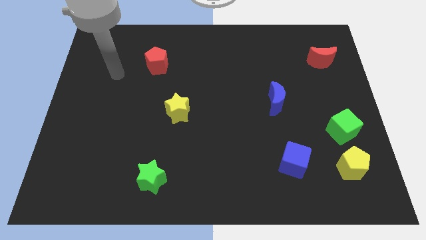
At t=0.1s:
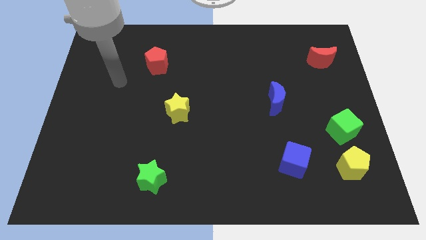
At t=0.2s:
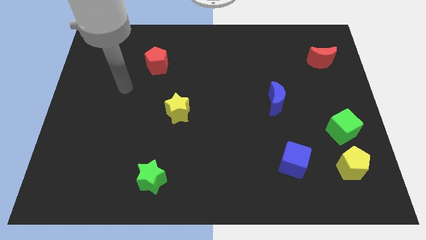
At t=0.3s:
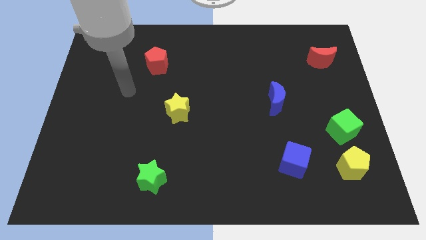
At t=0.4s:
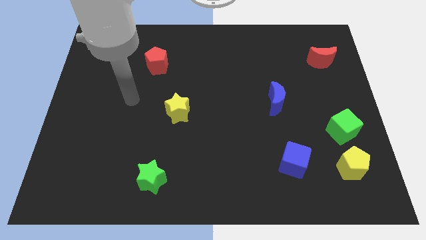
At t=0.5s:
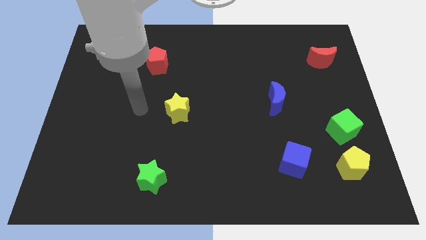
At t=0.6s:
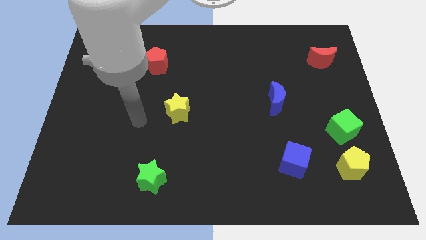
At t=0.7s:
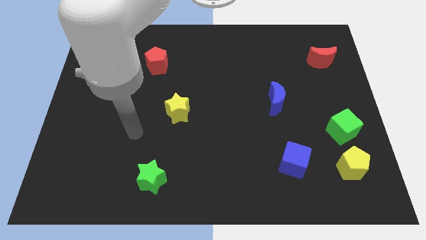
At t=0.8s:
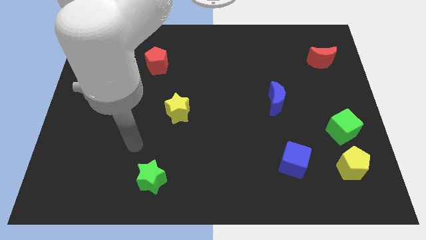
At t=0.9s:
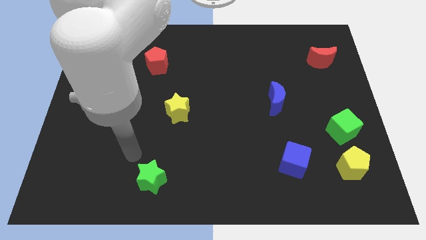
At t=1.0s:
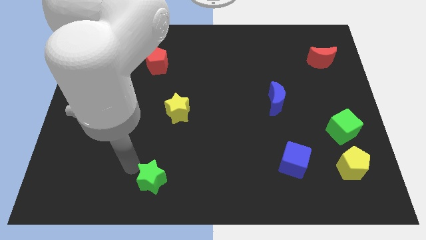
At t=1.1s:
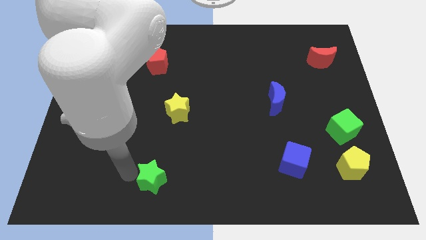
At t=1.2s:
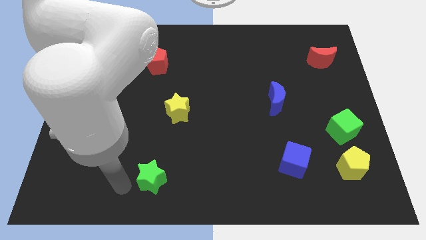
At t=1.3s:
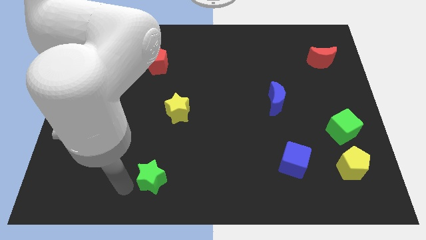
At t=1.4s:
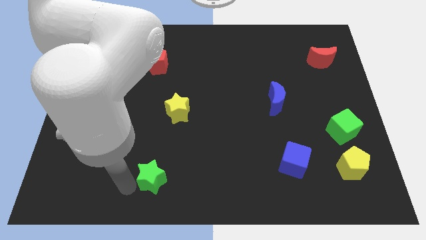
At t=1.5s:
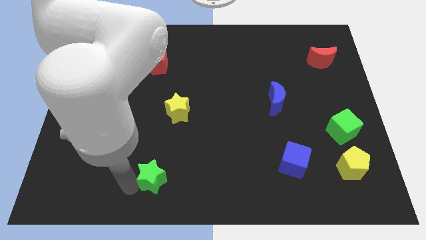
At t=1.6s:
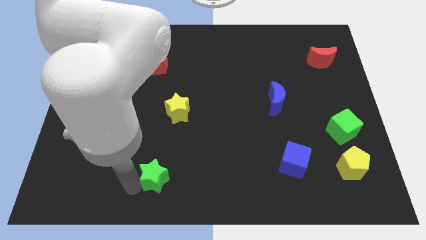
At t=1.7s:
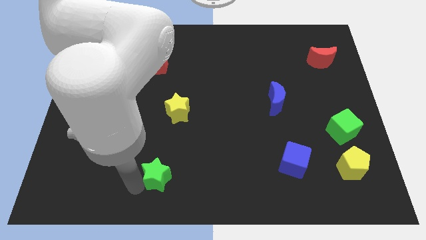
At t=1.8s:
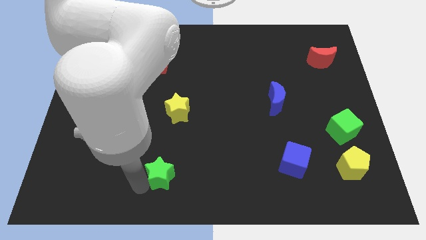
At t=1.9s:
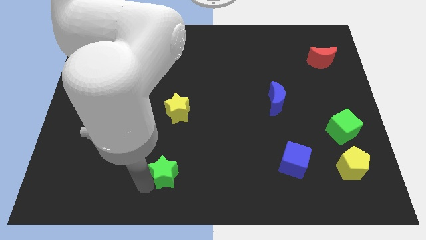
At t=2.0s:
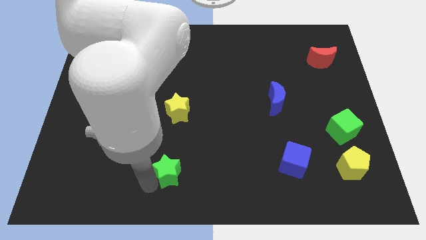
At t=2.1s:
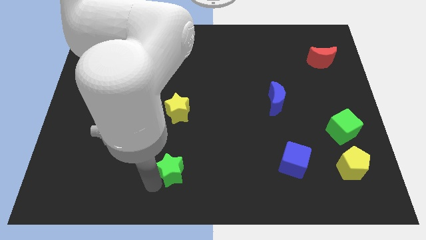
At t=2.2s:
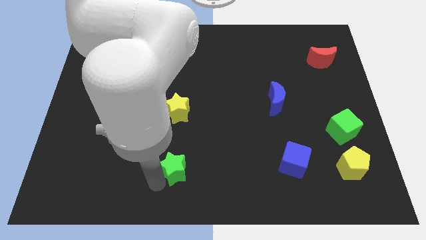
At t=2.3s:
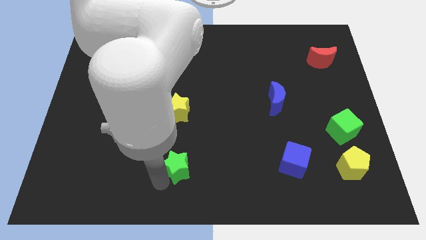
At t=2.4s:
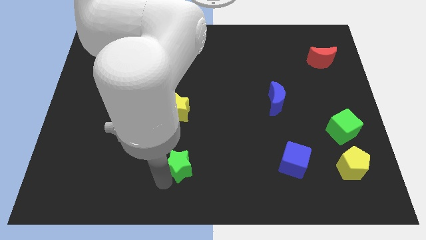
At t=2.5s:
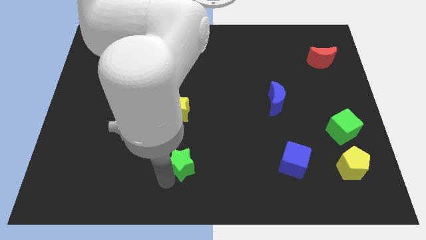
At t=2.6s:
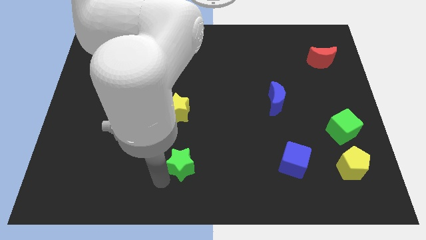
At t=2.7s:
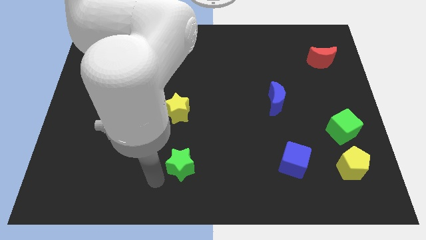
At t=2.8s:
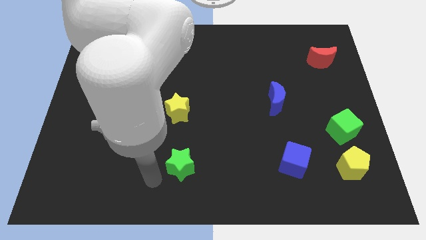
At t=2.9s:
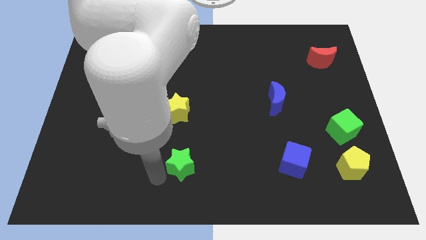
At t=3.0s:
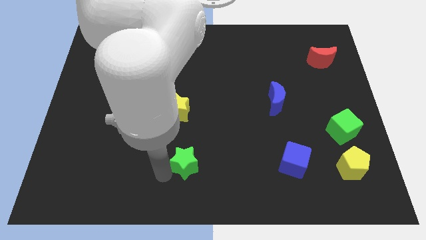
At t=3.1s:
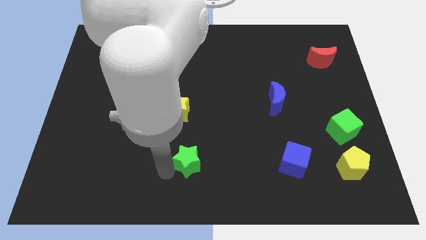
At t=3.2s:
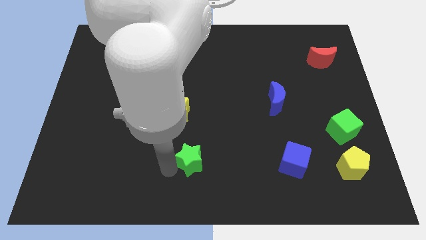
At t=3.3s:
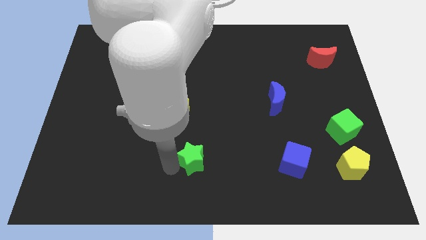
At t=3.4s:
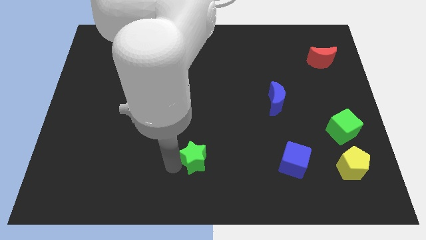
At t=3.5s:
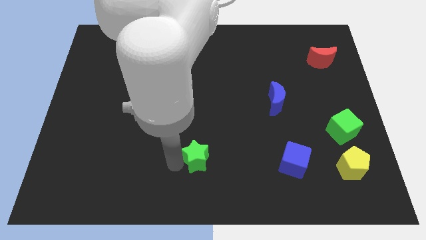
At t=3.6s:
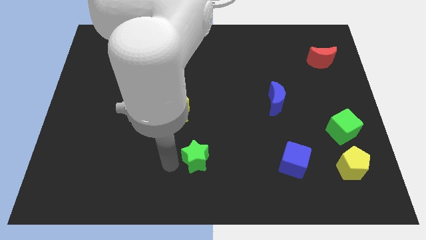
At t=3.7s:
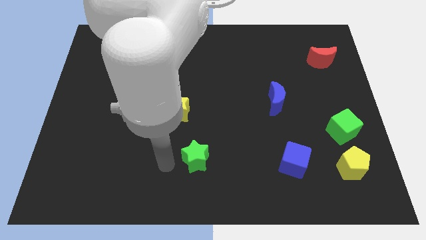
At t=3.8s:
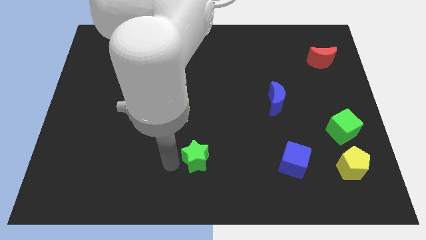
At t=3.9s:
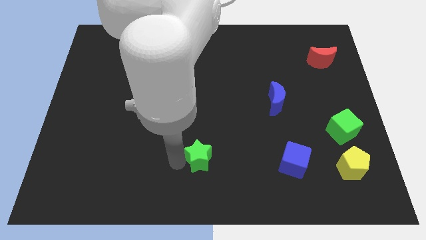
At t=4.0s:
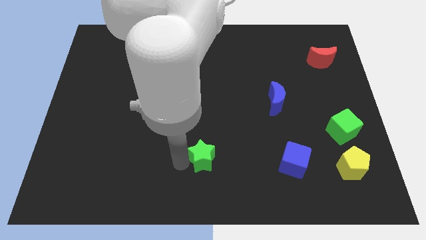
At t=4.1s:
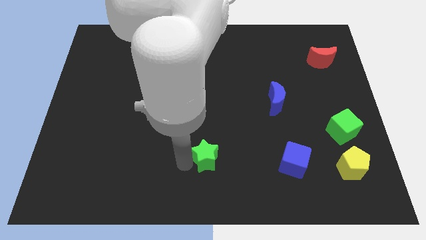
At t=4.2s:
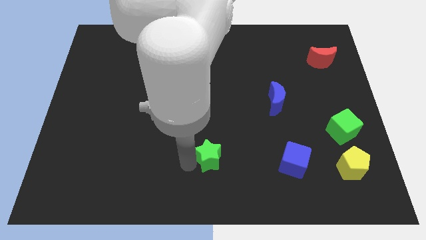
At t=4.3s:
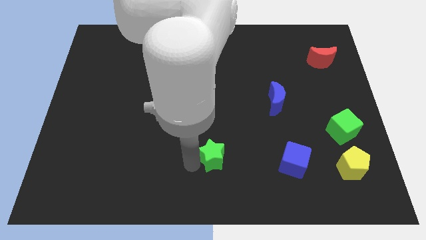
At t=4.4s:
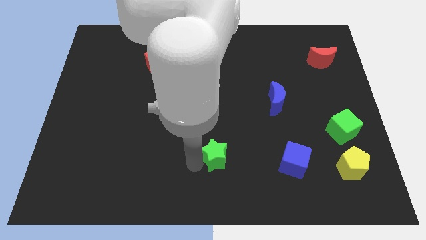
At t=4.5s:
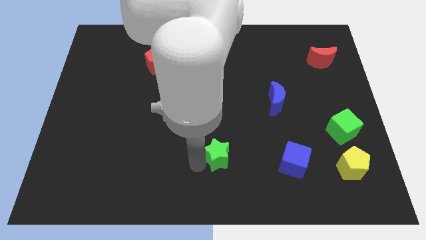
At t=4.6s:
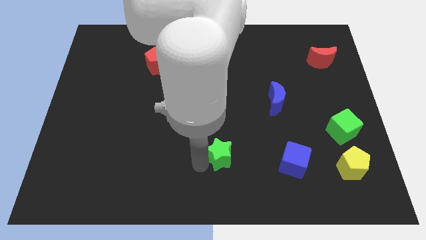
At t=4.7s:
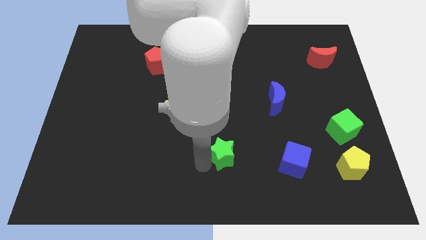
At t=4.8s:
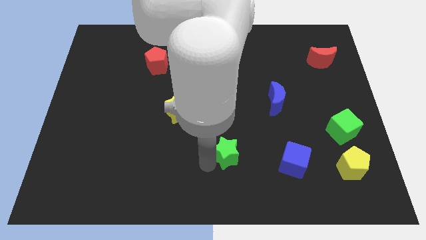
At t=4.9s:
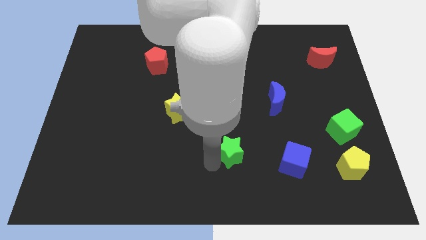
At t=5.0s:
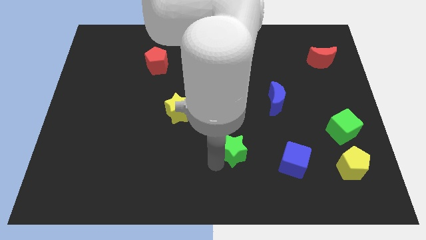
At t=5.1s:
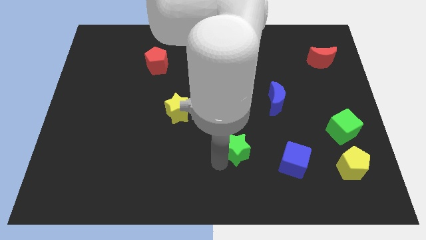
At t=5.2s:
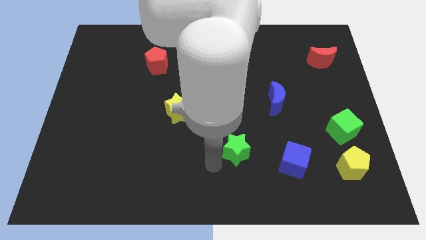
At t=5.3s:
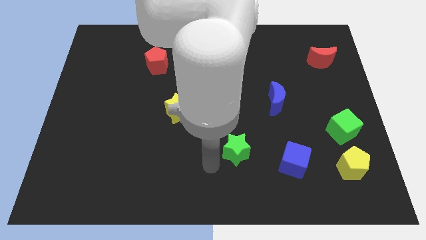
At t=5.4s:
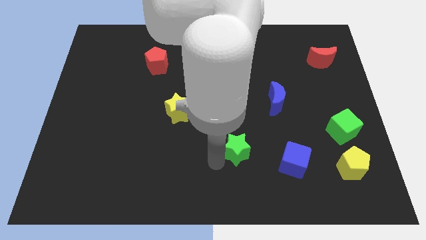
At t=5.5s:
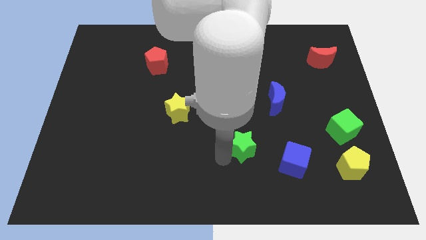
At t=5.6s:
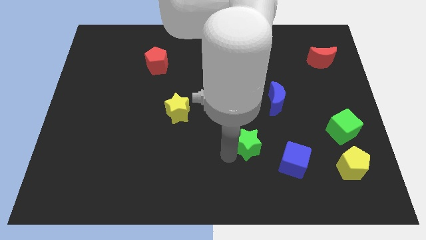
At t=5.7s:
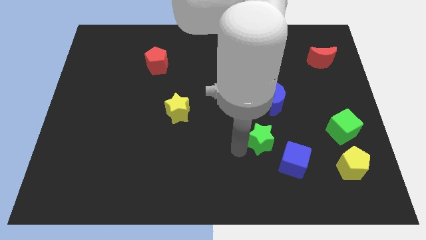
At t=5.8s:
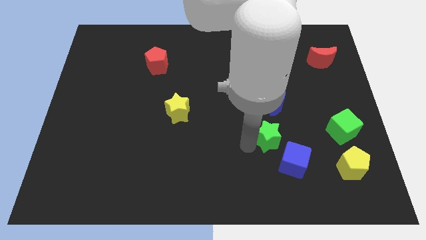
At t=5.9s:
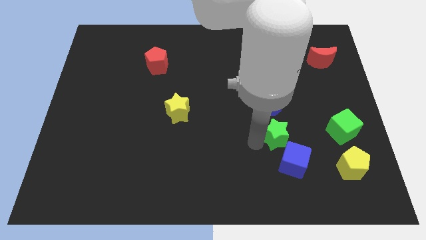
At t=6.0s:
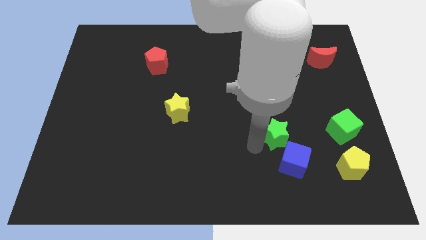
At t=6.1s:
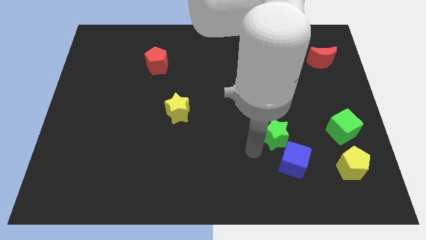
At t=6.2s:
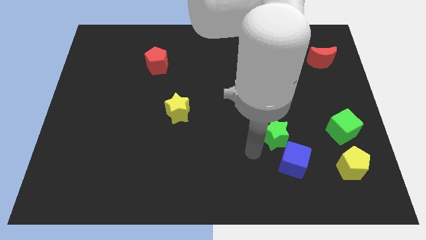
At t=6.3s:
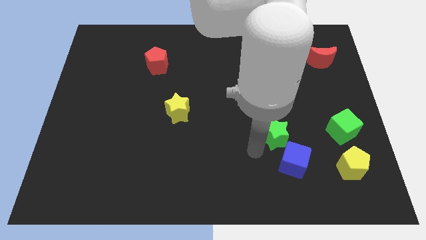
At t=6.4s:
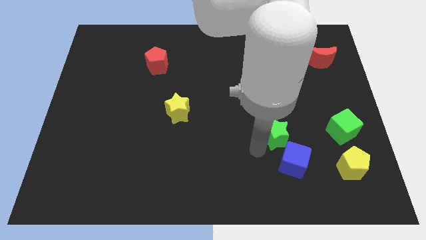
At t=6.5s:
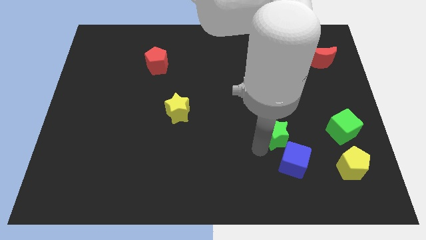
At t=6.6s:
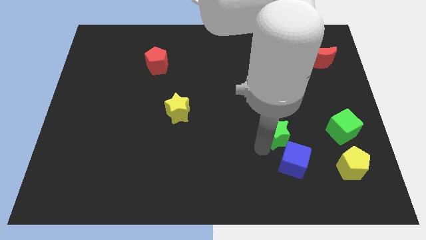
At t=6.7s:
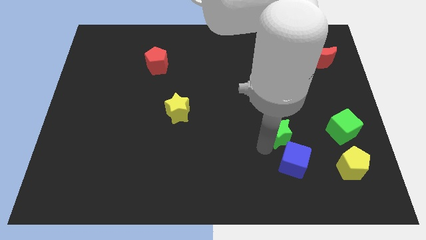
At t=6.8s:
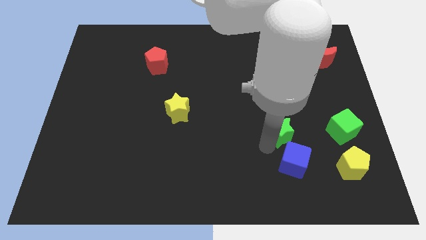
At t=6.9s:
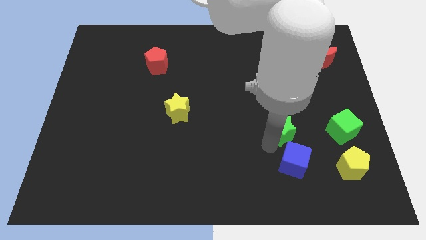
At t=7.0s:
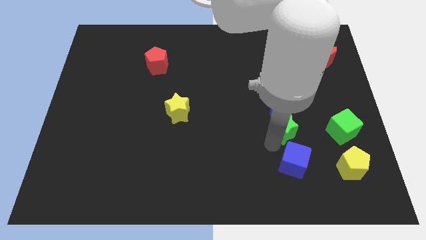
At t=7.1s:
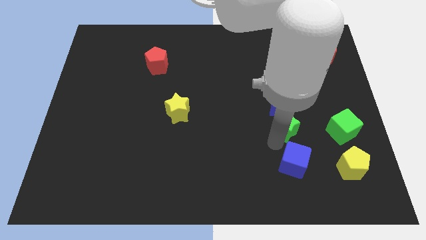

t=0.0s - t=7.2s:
push the green star to the bottom right side of the blue moon

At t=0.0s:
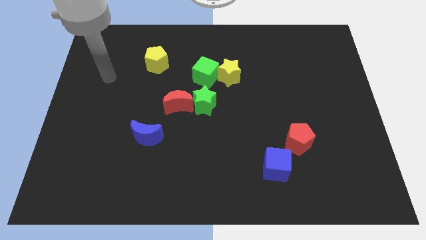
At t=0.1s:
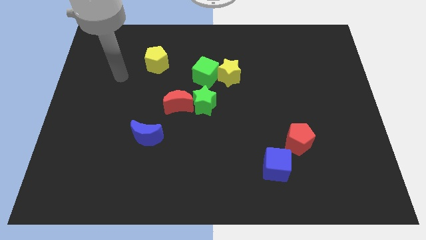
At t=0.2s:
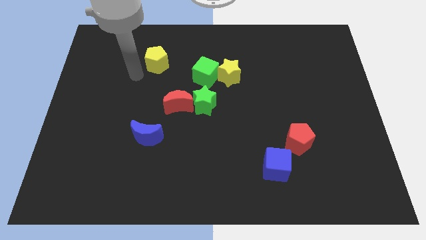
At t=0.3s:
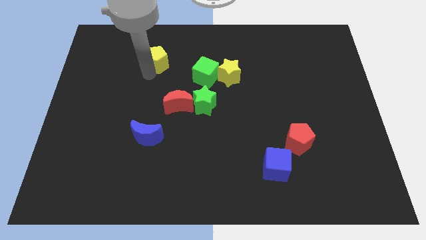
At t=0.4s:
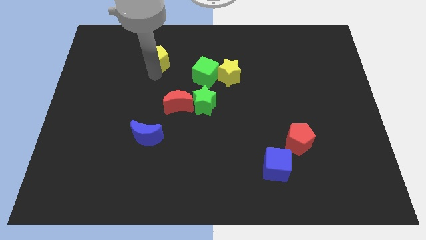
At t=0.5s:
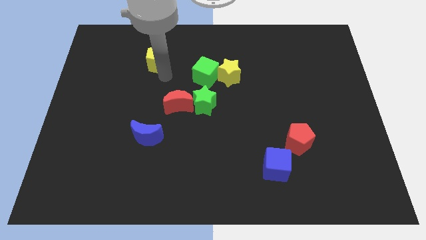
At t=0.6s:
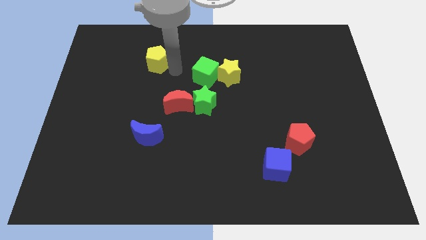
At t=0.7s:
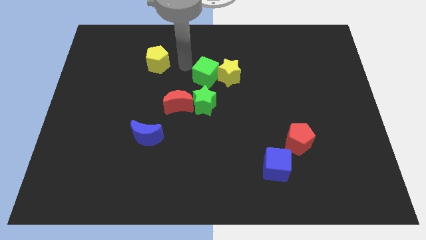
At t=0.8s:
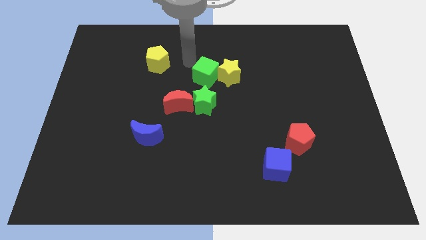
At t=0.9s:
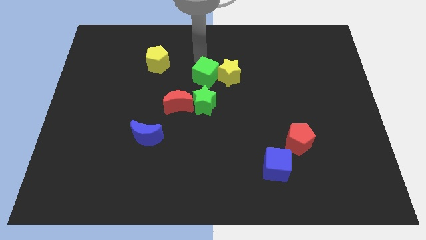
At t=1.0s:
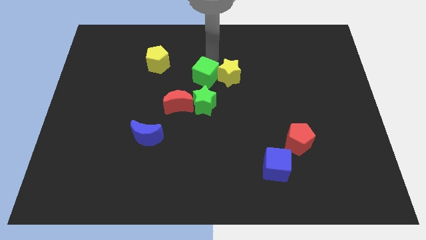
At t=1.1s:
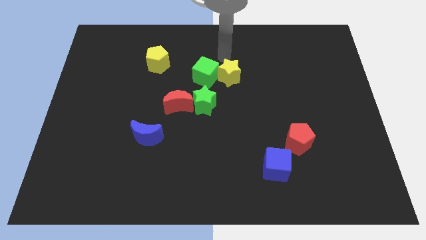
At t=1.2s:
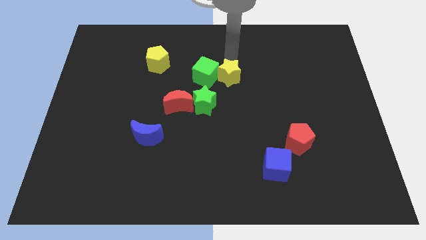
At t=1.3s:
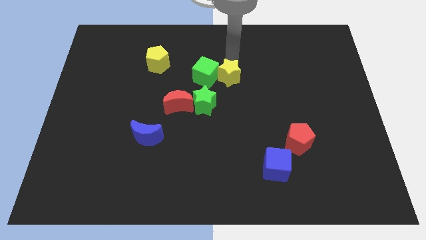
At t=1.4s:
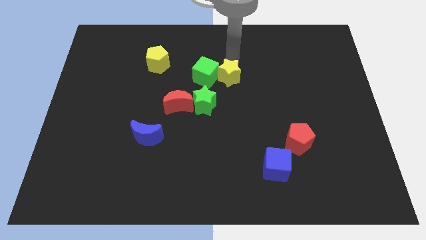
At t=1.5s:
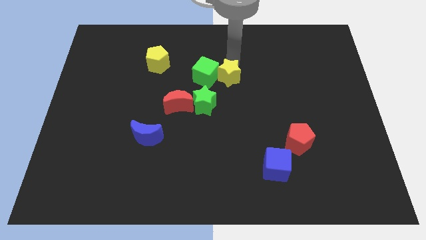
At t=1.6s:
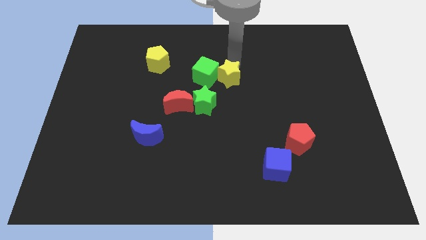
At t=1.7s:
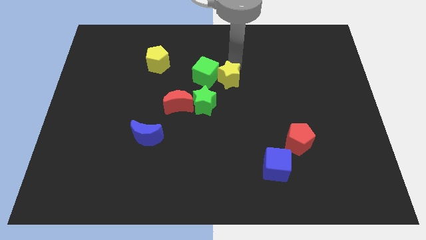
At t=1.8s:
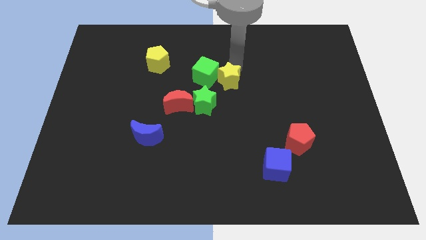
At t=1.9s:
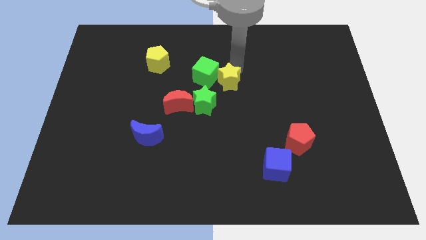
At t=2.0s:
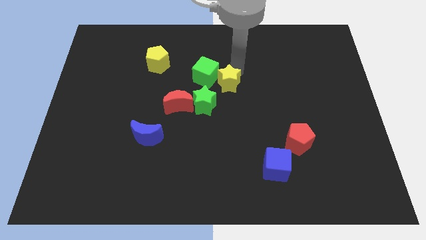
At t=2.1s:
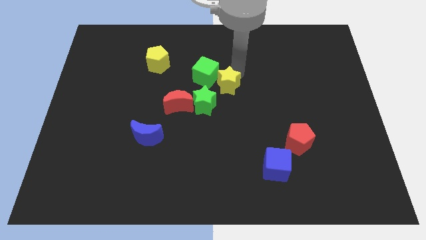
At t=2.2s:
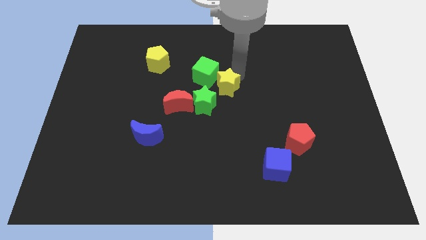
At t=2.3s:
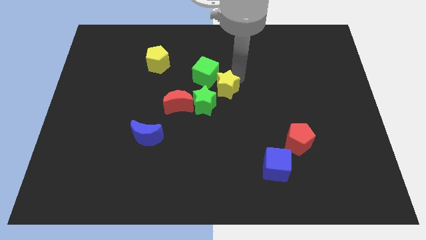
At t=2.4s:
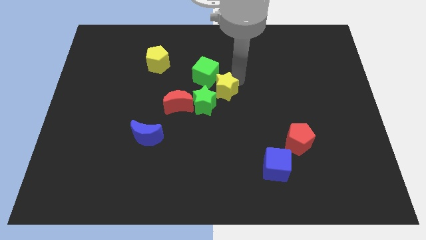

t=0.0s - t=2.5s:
move the yellow star to the right side of the red moon
